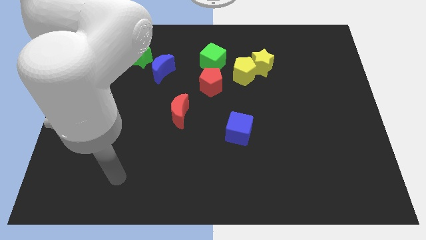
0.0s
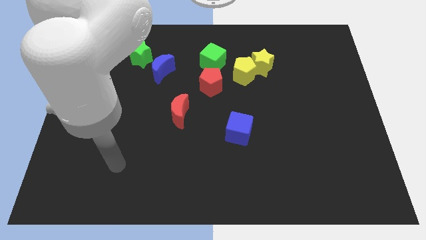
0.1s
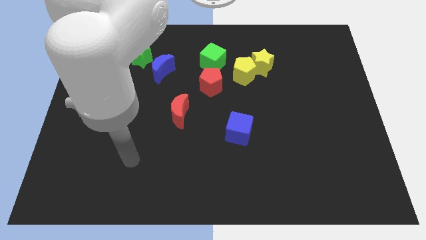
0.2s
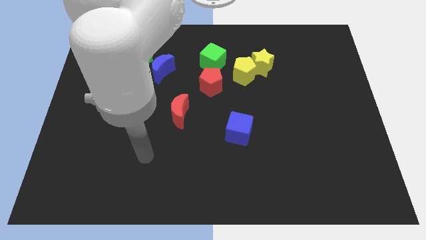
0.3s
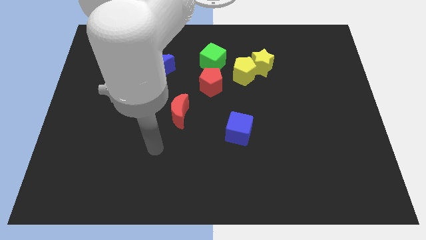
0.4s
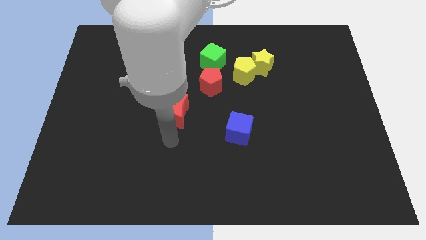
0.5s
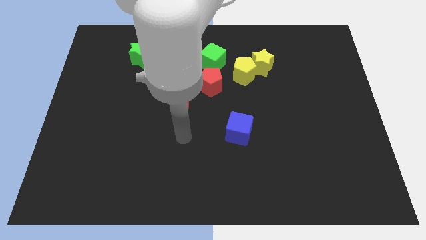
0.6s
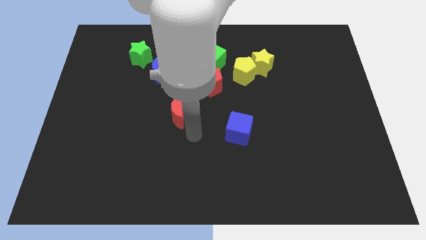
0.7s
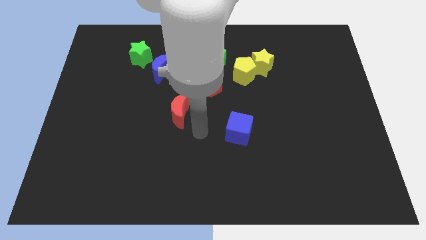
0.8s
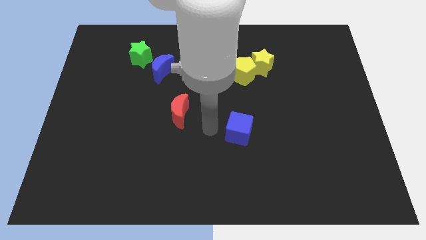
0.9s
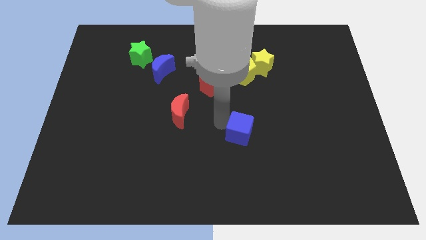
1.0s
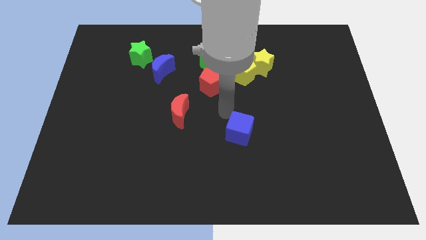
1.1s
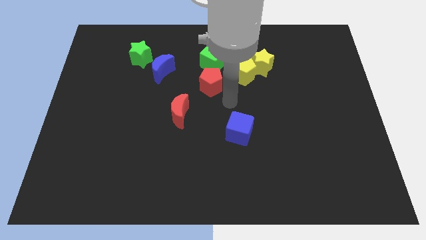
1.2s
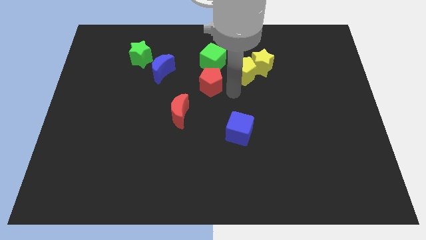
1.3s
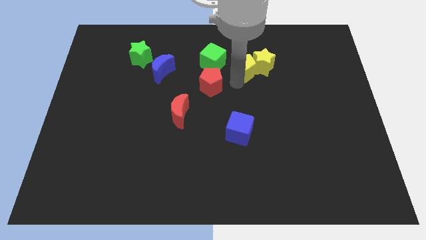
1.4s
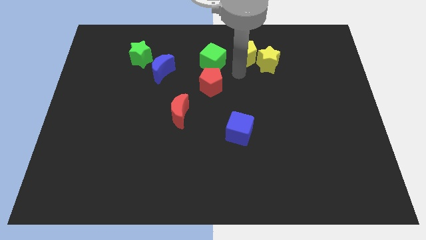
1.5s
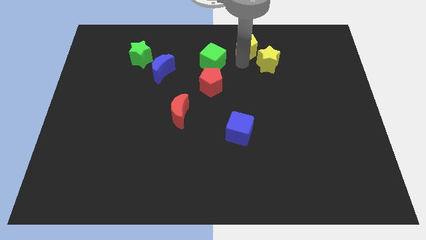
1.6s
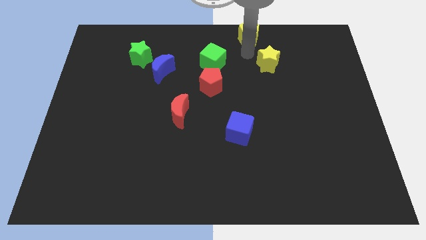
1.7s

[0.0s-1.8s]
separate the yellow star from the yellow pentagon

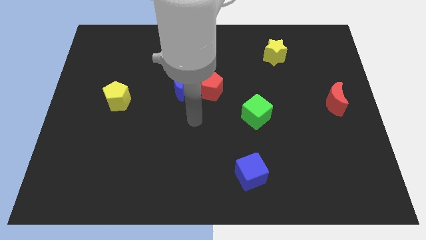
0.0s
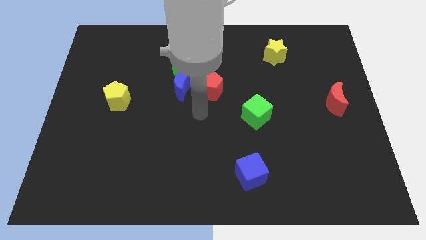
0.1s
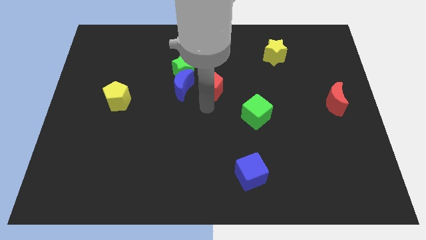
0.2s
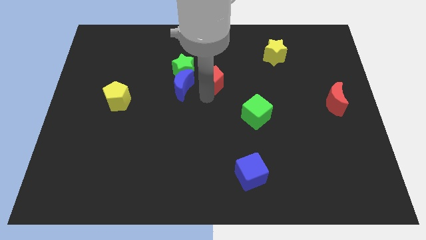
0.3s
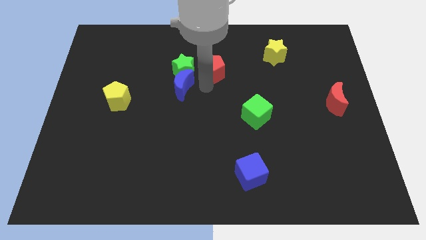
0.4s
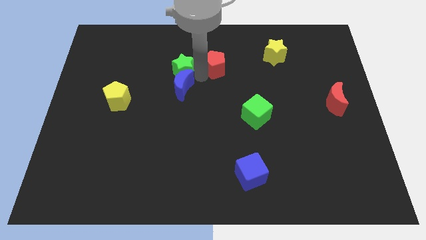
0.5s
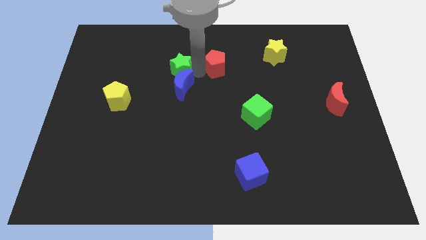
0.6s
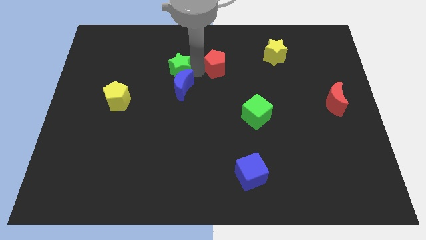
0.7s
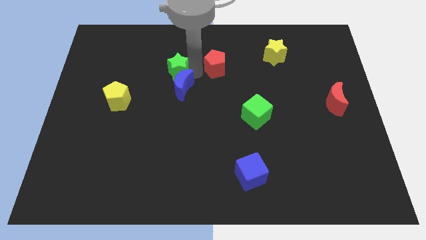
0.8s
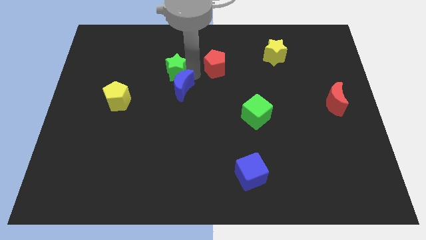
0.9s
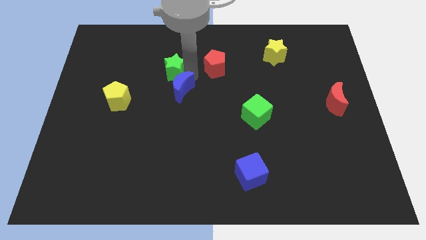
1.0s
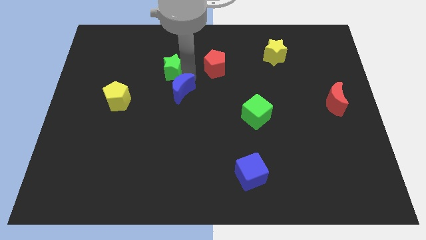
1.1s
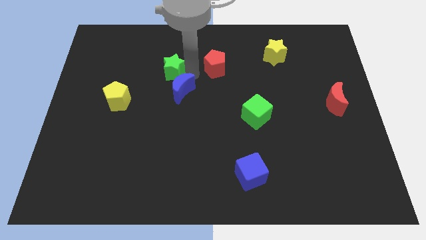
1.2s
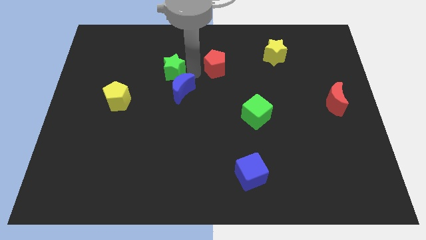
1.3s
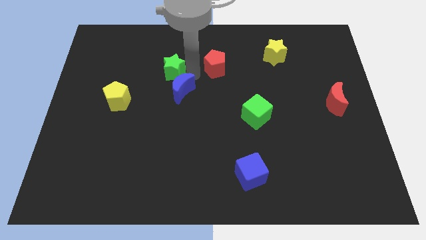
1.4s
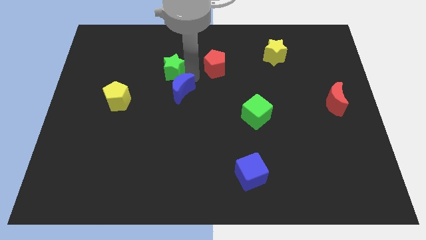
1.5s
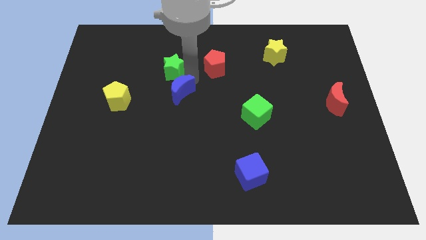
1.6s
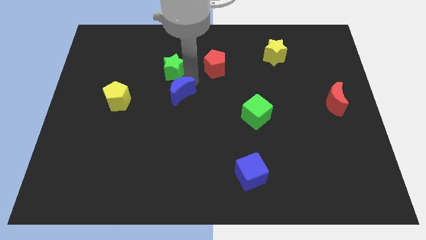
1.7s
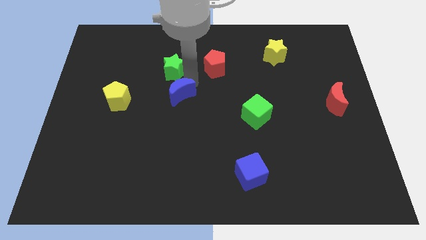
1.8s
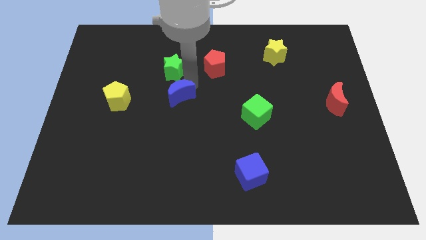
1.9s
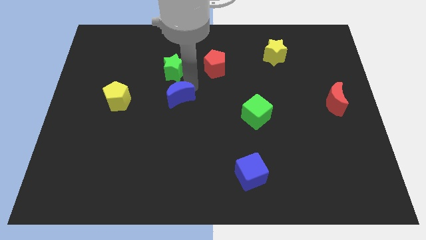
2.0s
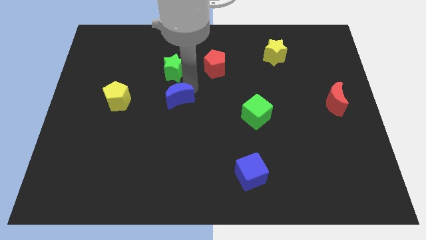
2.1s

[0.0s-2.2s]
move the blue moon away from the green star and red pentagon

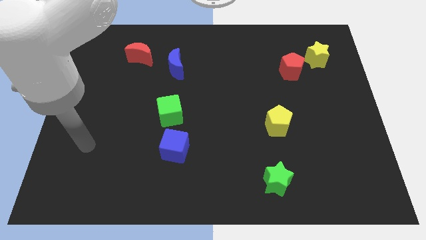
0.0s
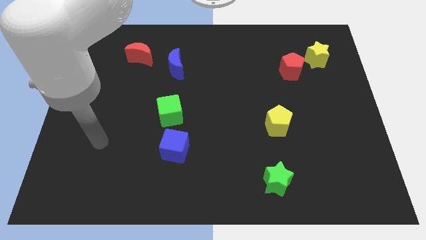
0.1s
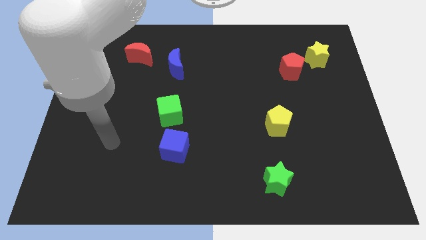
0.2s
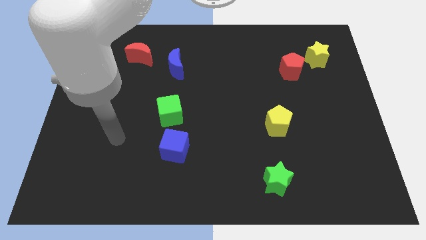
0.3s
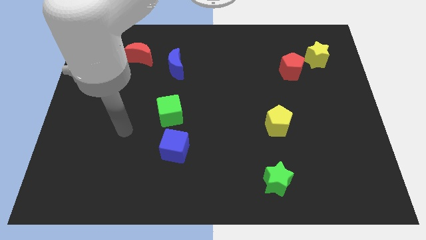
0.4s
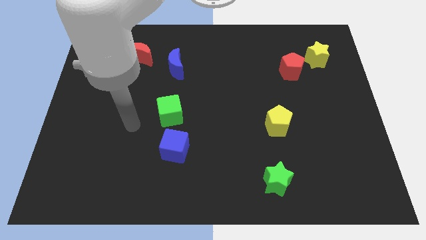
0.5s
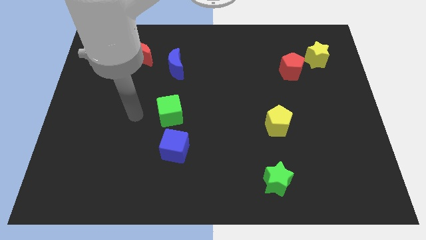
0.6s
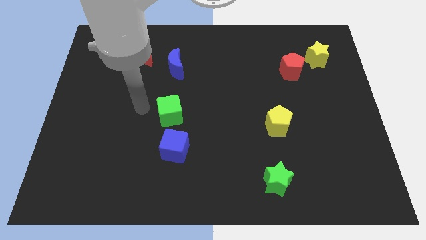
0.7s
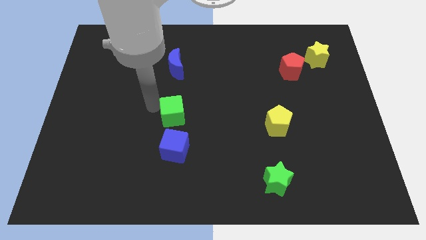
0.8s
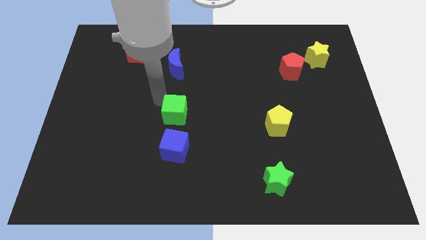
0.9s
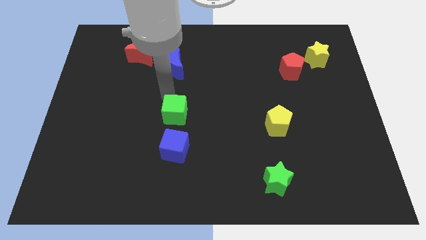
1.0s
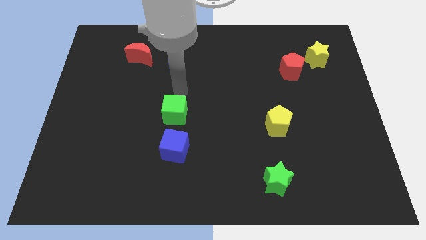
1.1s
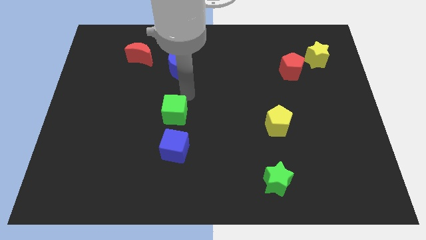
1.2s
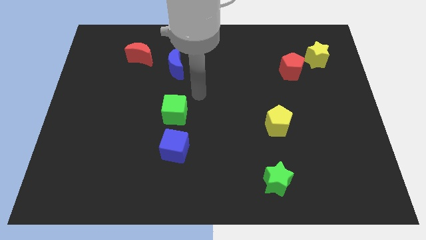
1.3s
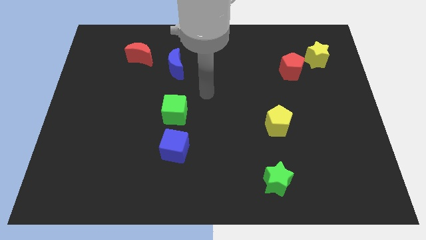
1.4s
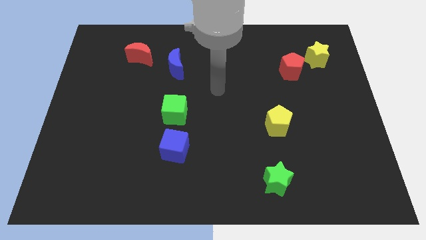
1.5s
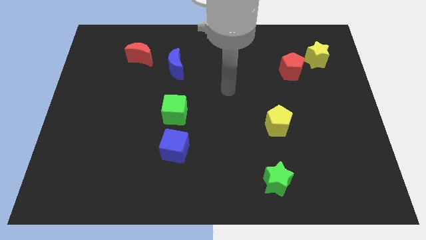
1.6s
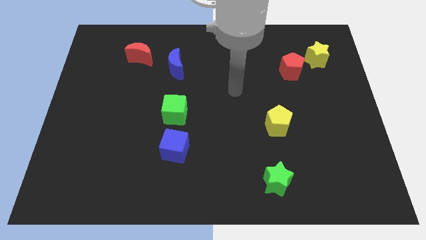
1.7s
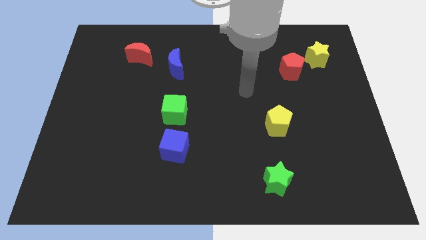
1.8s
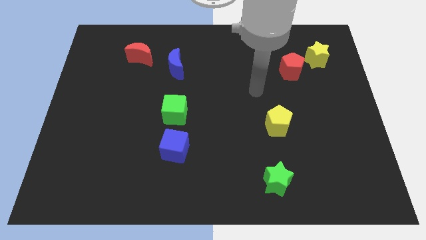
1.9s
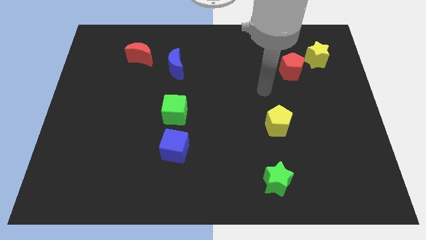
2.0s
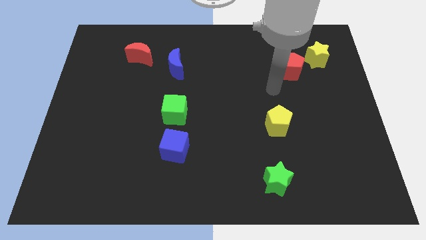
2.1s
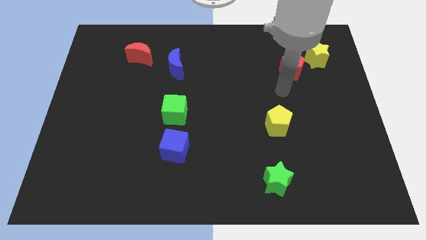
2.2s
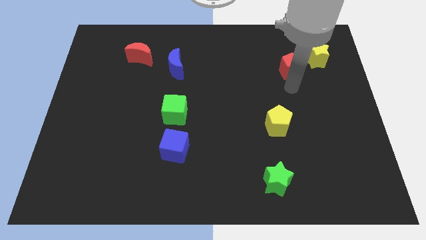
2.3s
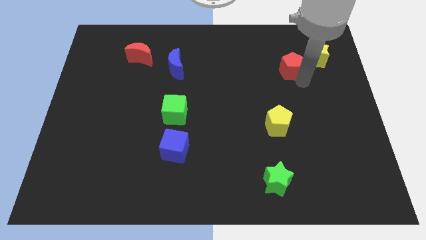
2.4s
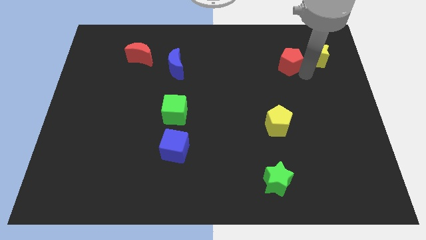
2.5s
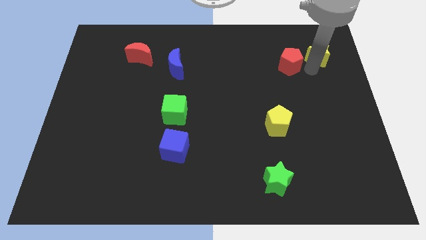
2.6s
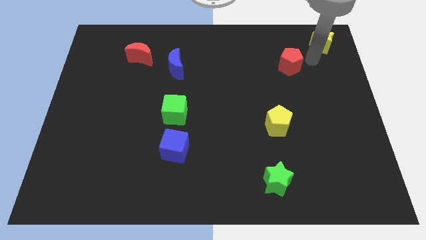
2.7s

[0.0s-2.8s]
move the red pentagon away from the yellow star

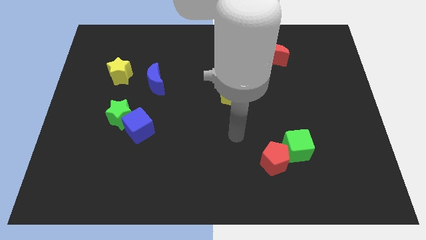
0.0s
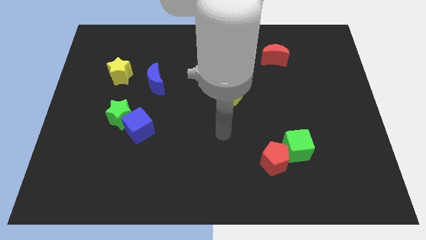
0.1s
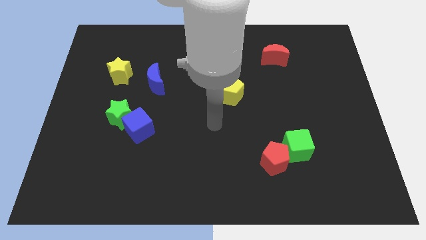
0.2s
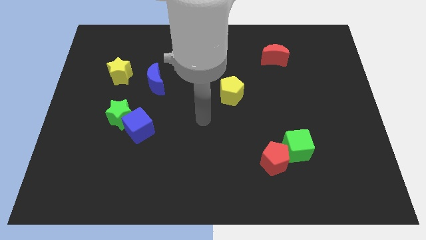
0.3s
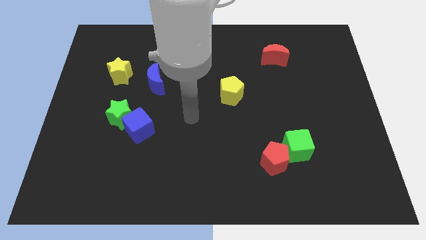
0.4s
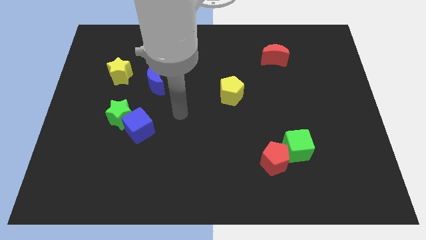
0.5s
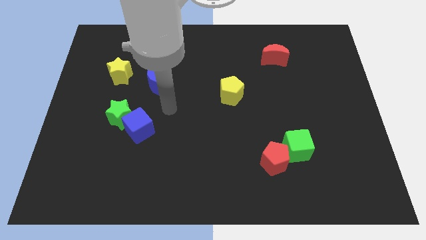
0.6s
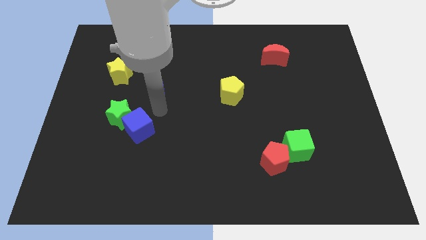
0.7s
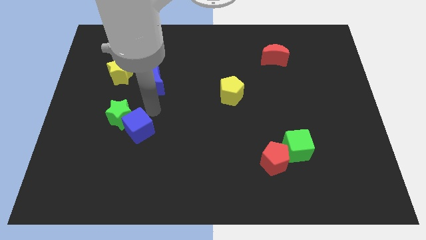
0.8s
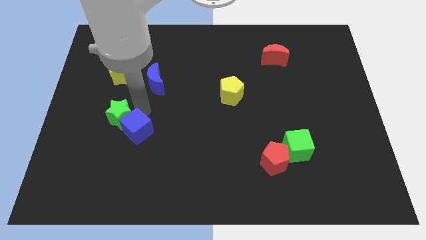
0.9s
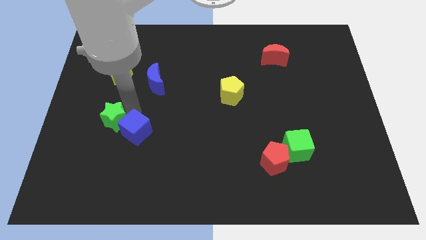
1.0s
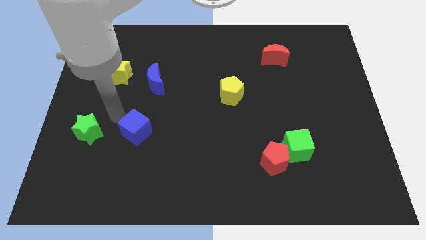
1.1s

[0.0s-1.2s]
move the blue cube away from the green star

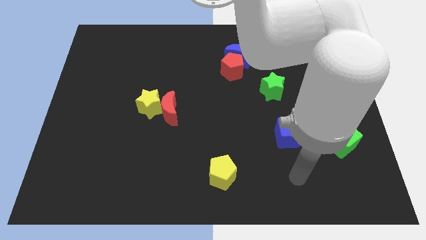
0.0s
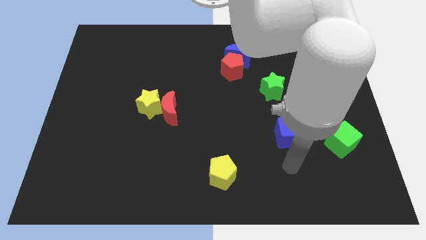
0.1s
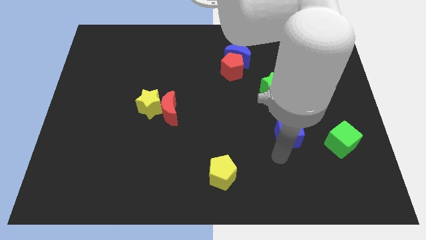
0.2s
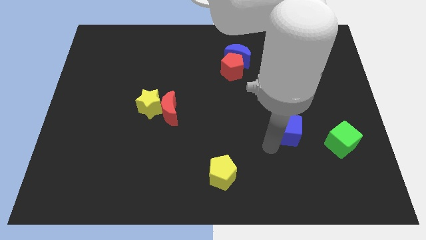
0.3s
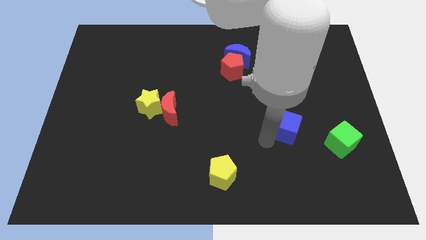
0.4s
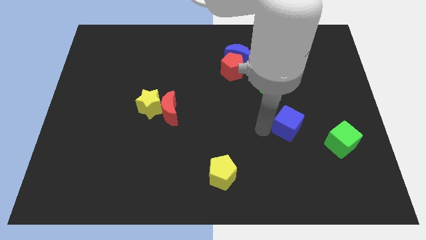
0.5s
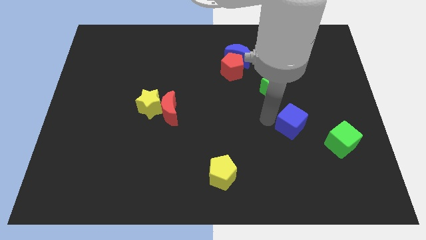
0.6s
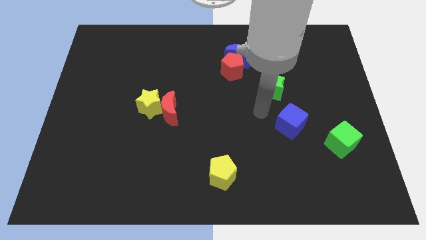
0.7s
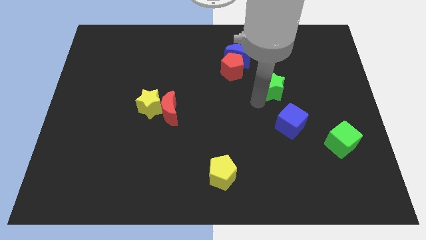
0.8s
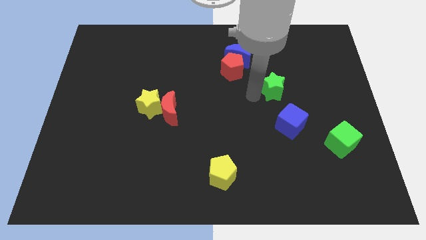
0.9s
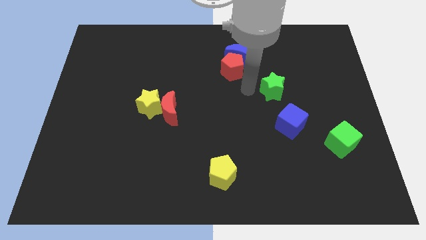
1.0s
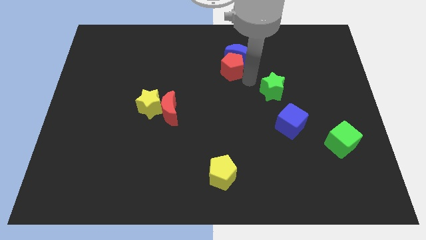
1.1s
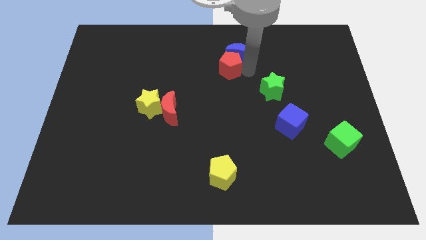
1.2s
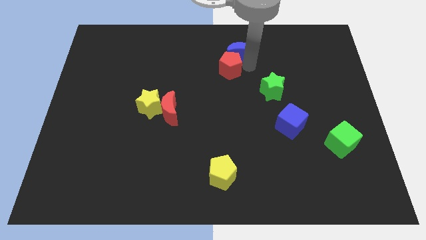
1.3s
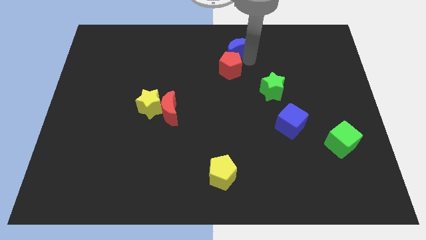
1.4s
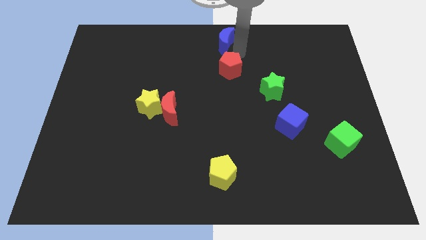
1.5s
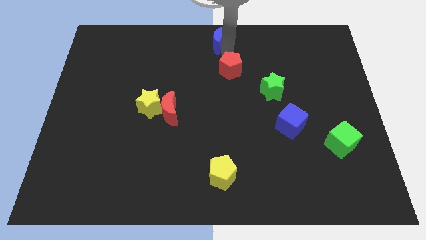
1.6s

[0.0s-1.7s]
separate the red pentagon from the blue moon
